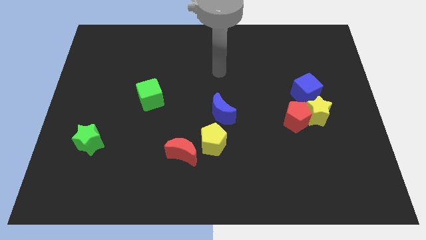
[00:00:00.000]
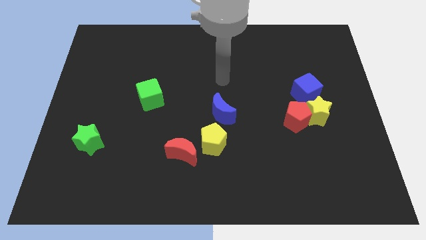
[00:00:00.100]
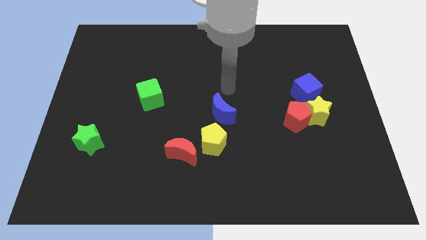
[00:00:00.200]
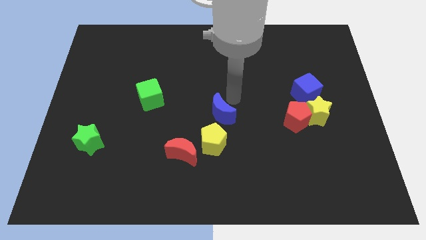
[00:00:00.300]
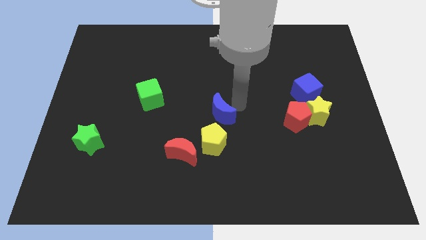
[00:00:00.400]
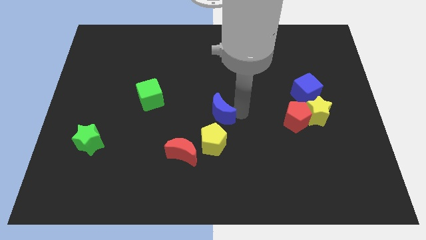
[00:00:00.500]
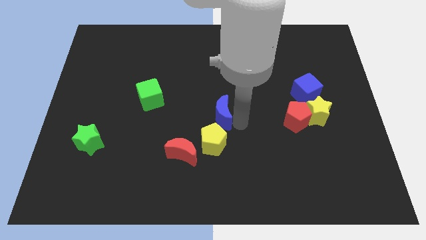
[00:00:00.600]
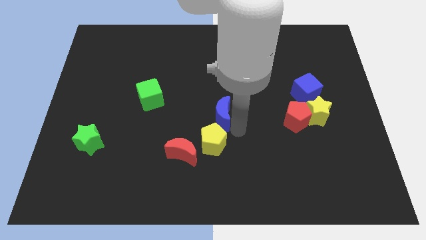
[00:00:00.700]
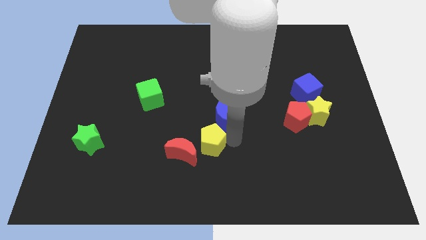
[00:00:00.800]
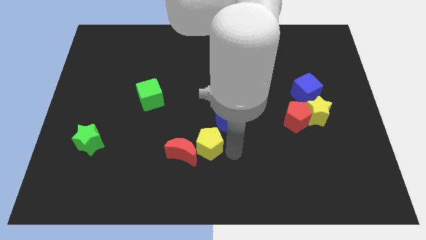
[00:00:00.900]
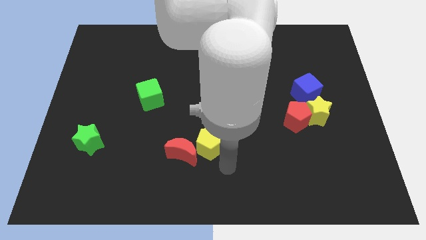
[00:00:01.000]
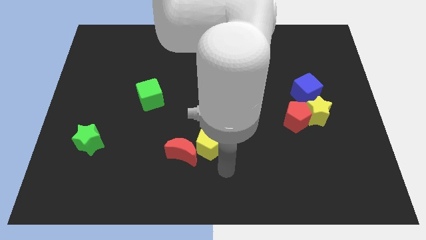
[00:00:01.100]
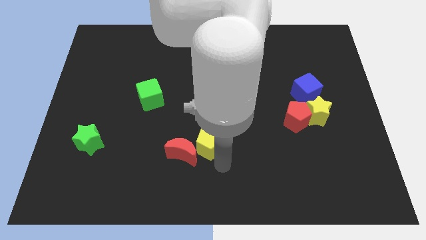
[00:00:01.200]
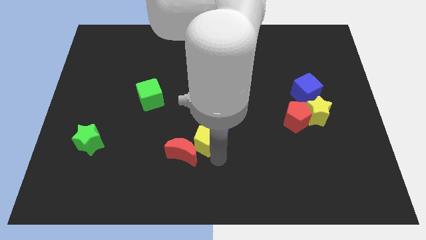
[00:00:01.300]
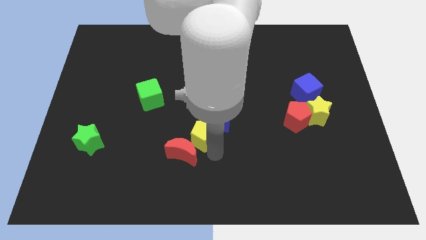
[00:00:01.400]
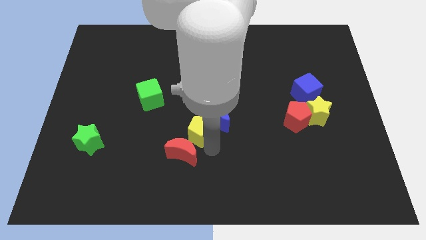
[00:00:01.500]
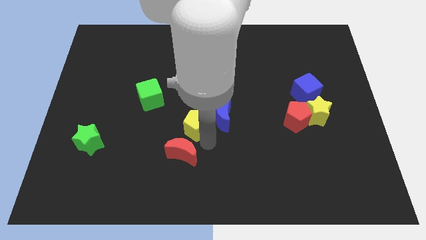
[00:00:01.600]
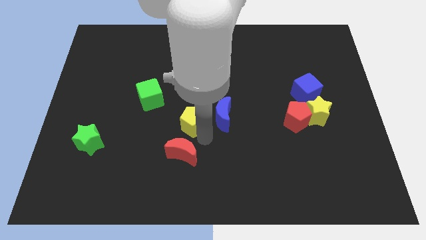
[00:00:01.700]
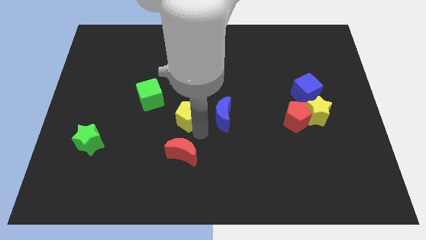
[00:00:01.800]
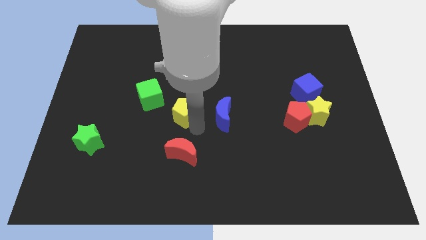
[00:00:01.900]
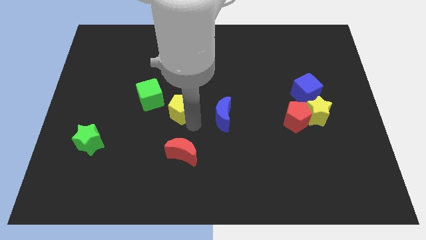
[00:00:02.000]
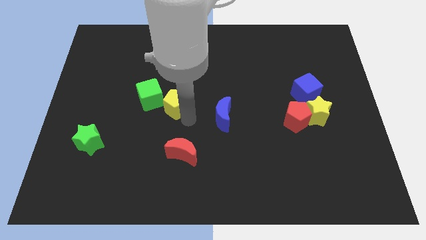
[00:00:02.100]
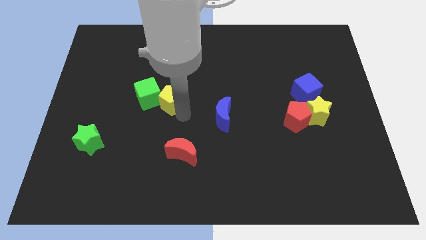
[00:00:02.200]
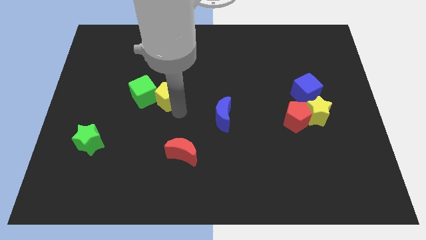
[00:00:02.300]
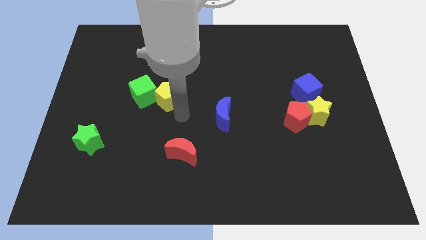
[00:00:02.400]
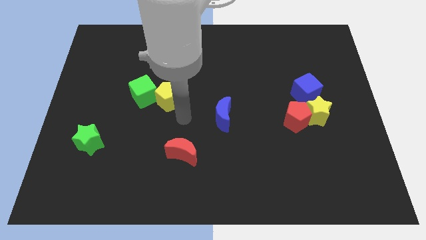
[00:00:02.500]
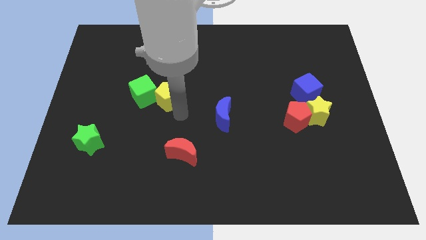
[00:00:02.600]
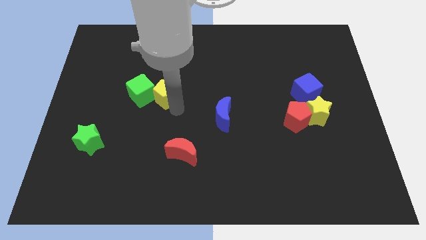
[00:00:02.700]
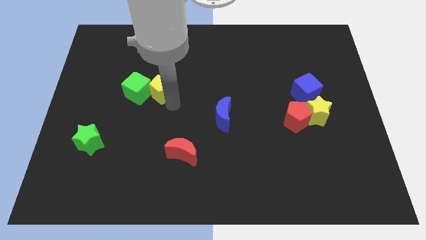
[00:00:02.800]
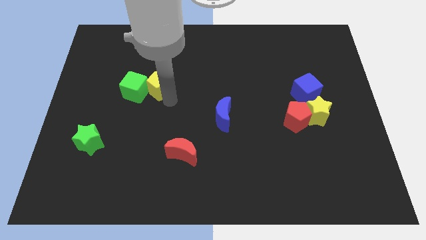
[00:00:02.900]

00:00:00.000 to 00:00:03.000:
push the yellow pentagon diagonally up and left

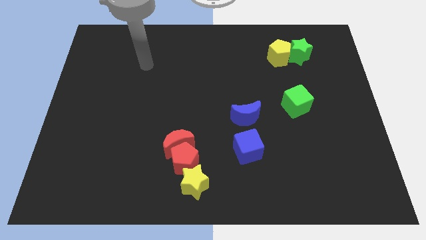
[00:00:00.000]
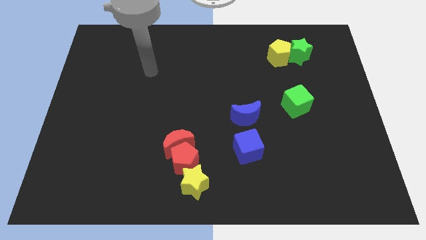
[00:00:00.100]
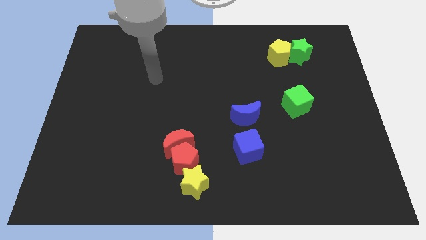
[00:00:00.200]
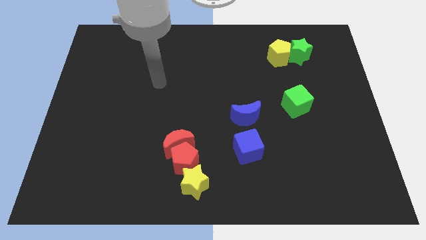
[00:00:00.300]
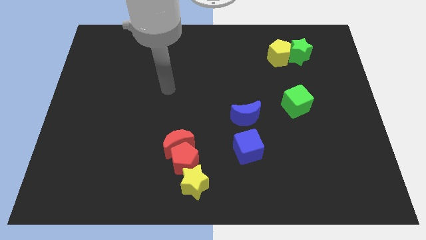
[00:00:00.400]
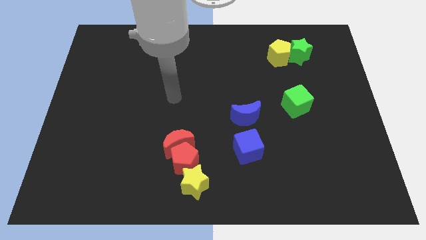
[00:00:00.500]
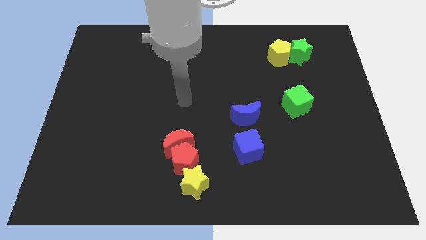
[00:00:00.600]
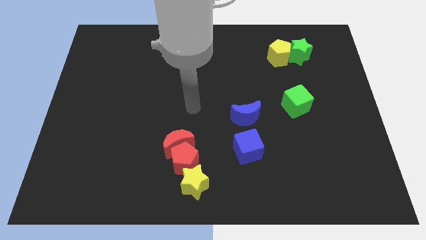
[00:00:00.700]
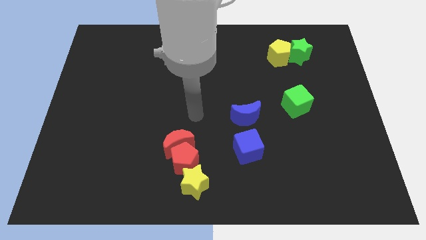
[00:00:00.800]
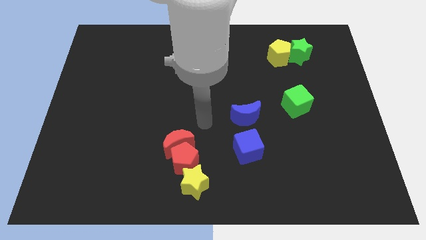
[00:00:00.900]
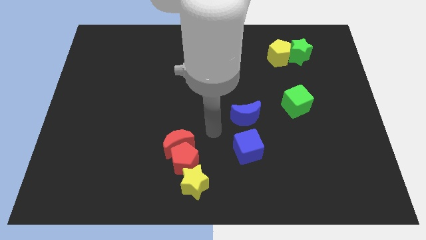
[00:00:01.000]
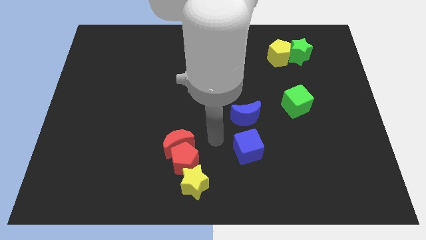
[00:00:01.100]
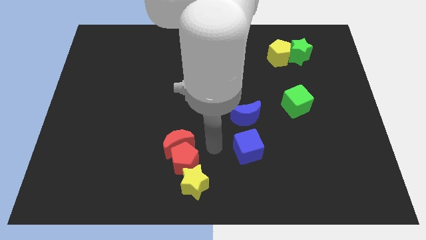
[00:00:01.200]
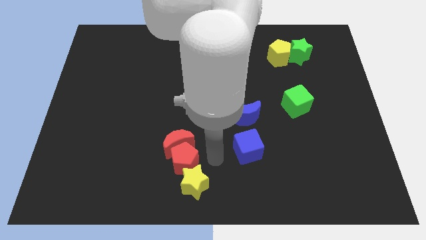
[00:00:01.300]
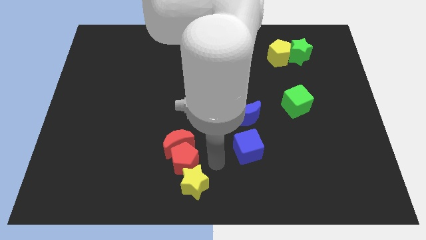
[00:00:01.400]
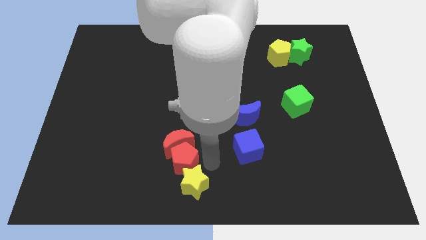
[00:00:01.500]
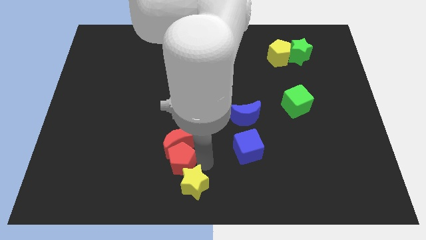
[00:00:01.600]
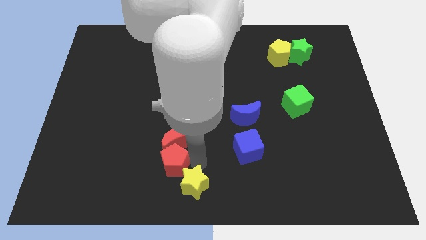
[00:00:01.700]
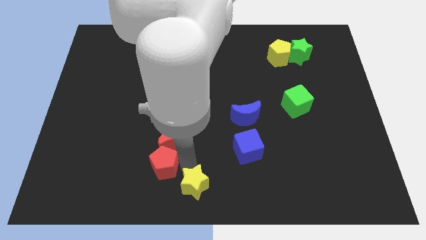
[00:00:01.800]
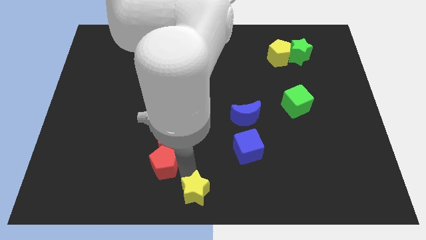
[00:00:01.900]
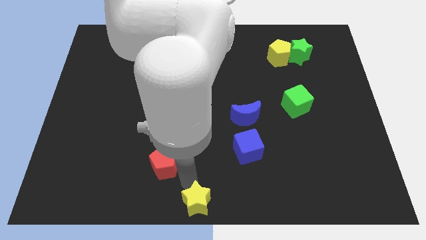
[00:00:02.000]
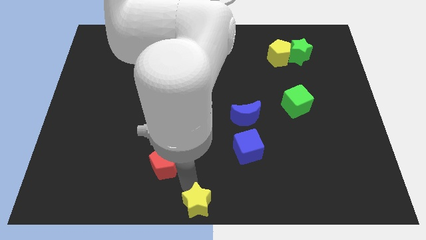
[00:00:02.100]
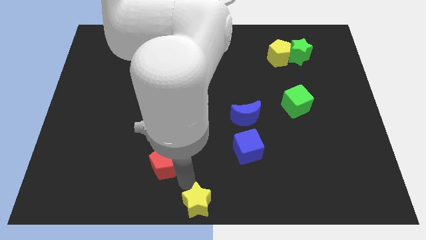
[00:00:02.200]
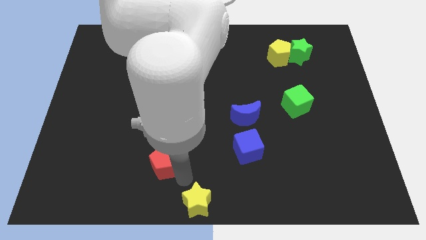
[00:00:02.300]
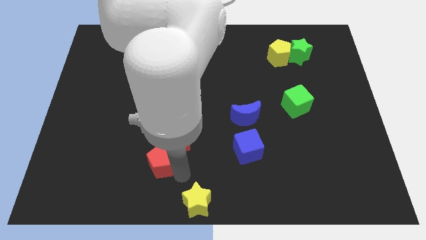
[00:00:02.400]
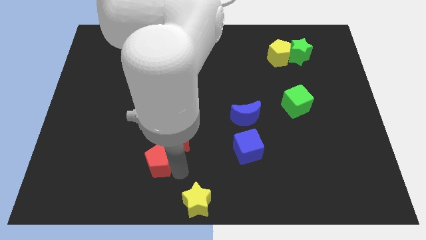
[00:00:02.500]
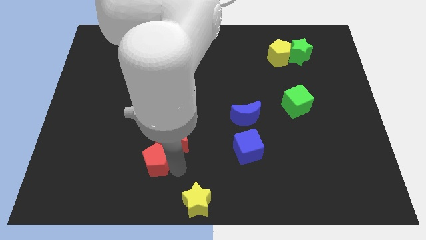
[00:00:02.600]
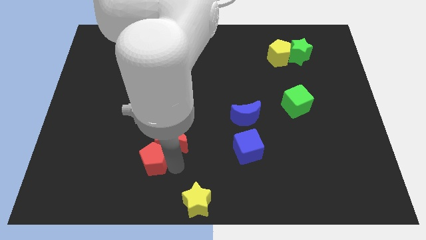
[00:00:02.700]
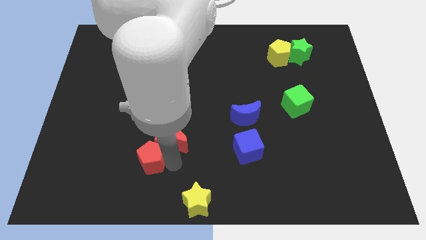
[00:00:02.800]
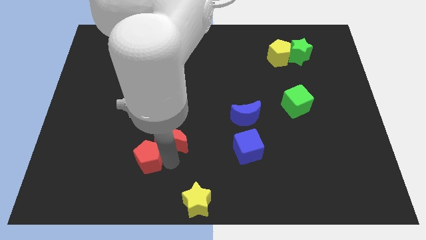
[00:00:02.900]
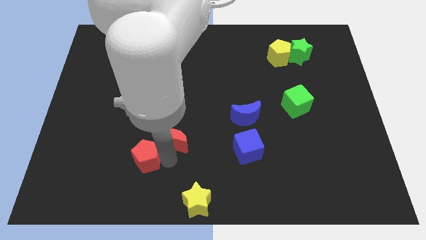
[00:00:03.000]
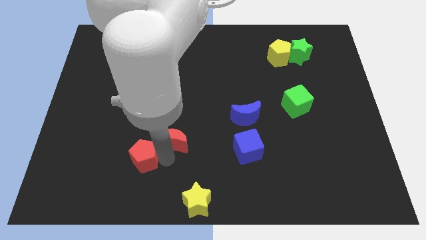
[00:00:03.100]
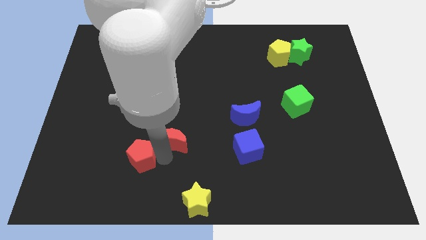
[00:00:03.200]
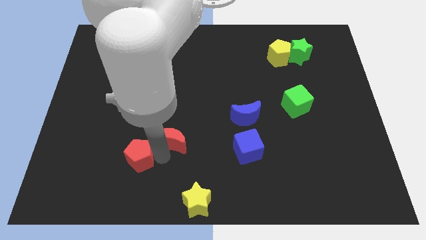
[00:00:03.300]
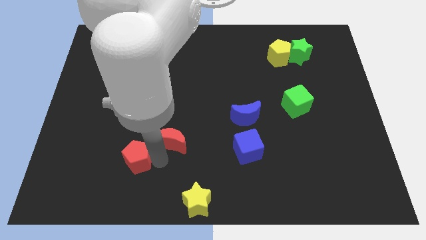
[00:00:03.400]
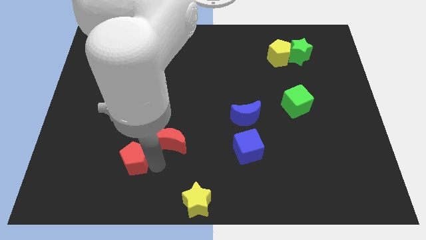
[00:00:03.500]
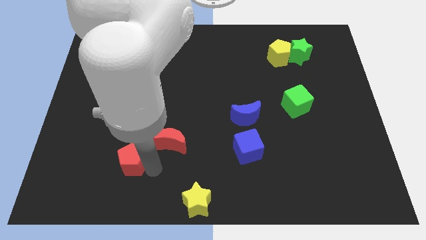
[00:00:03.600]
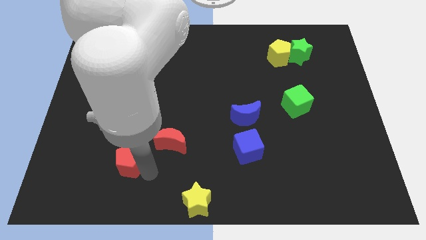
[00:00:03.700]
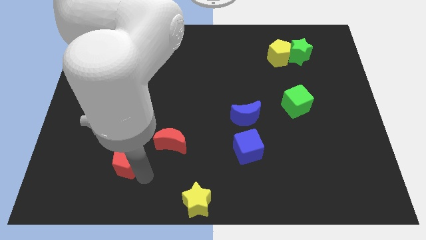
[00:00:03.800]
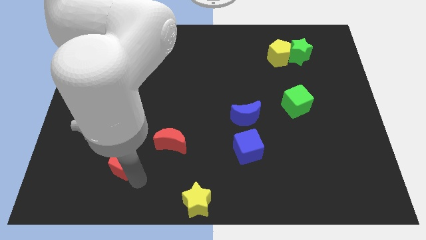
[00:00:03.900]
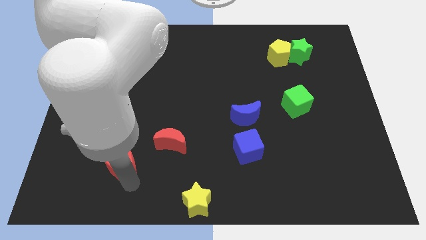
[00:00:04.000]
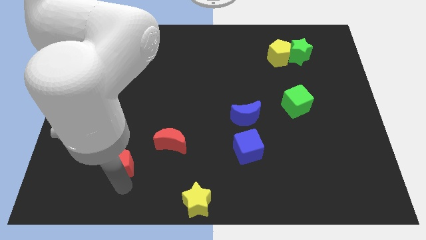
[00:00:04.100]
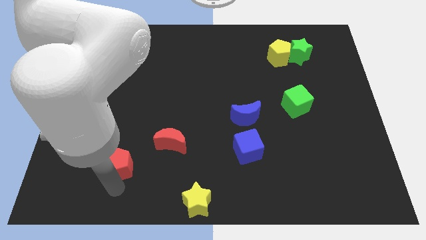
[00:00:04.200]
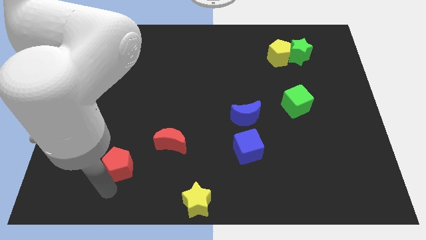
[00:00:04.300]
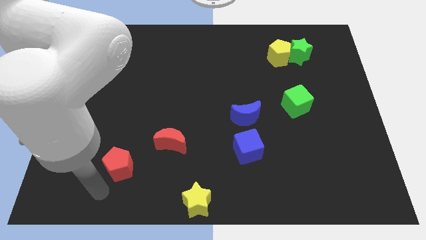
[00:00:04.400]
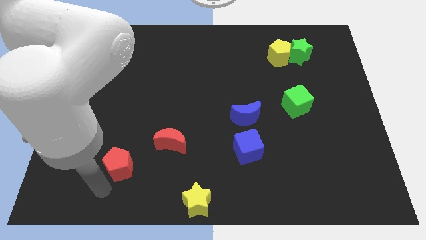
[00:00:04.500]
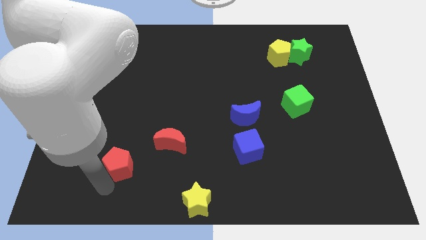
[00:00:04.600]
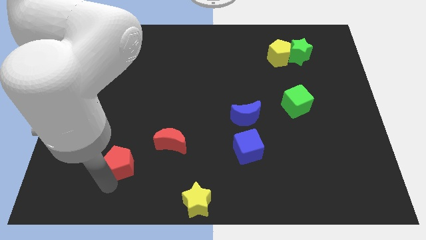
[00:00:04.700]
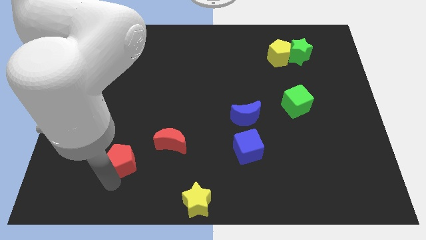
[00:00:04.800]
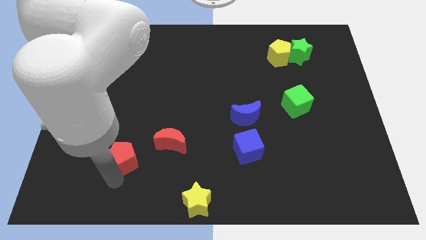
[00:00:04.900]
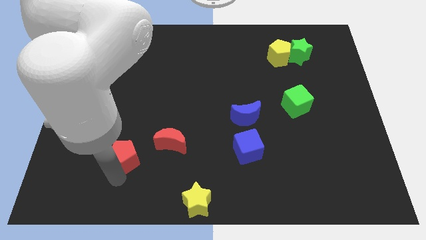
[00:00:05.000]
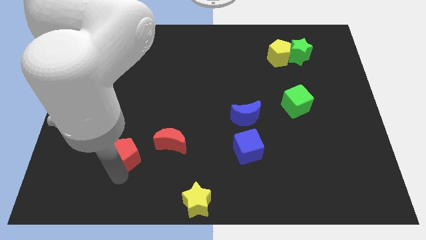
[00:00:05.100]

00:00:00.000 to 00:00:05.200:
move the red pentagon up and left somewhat
